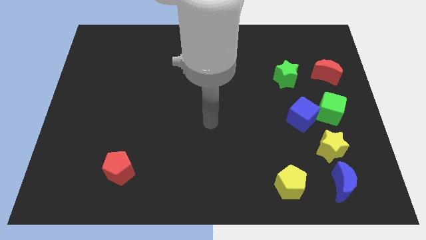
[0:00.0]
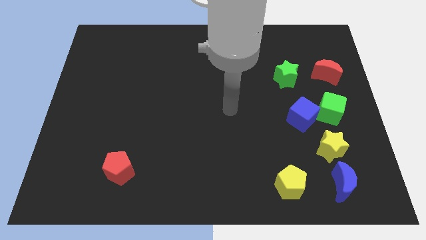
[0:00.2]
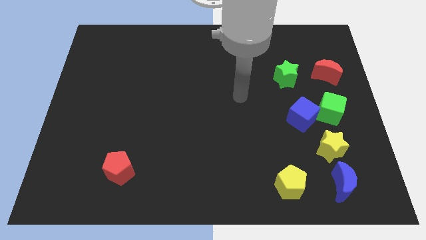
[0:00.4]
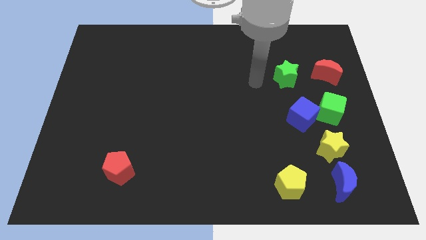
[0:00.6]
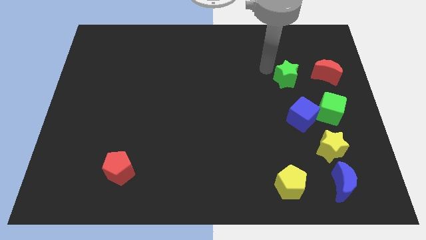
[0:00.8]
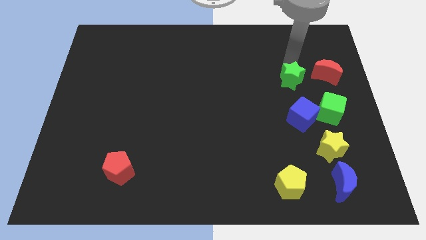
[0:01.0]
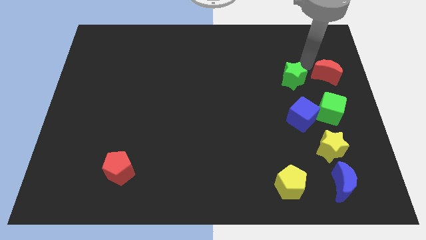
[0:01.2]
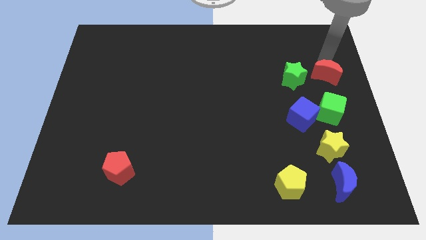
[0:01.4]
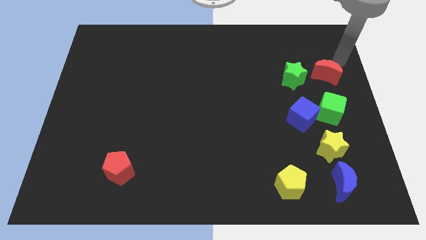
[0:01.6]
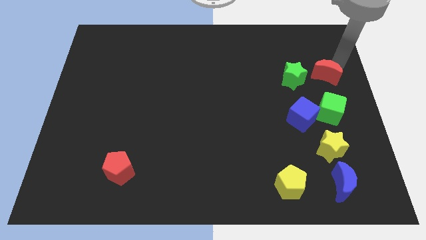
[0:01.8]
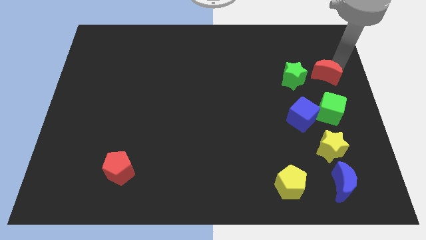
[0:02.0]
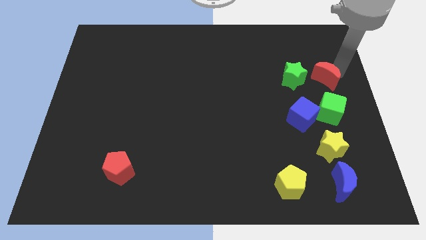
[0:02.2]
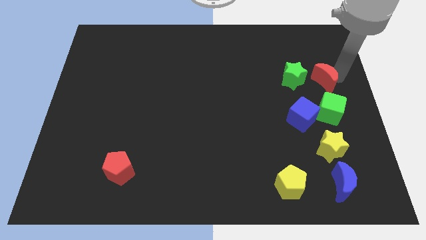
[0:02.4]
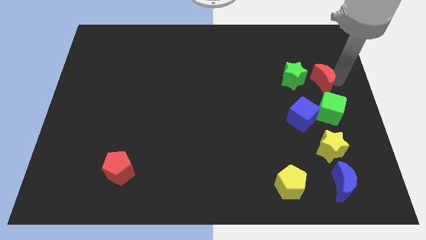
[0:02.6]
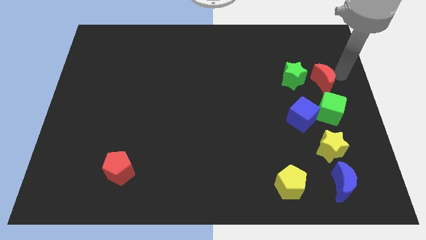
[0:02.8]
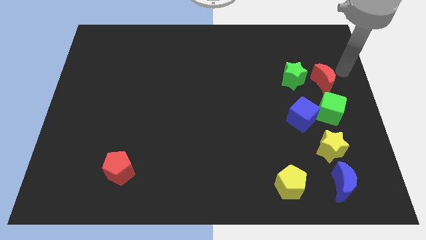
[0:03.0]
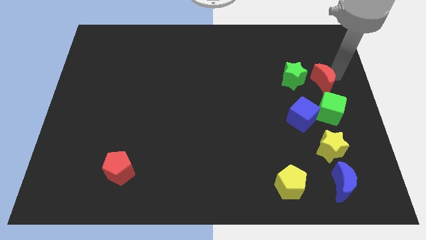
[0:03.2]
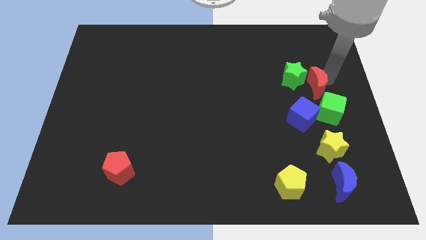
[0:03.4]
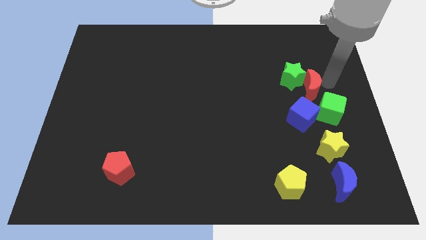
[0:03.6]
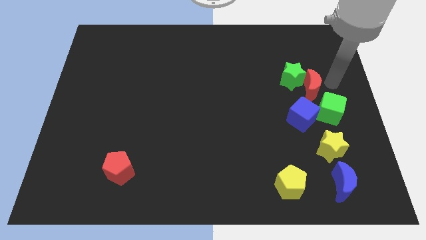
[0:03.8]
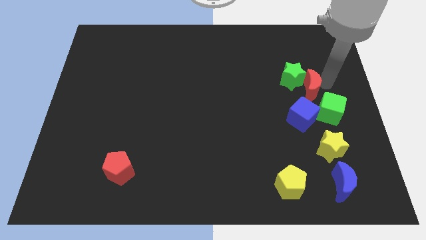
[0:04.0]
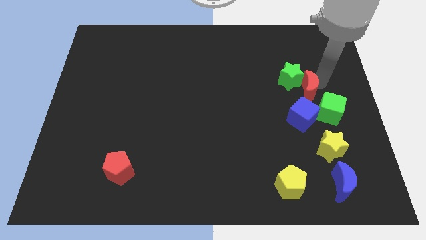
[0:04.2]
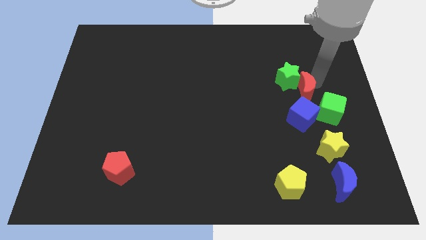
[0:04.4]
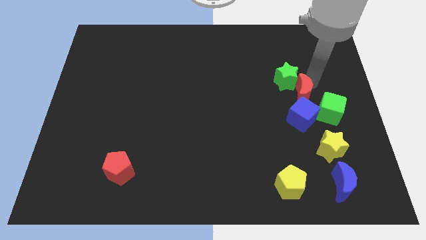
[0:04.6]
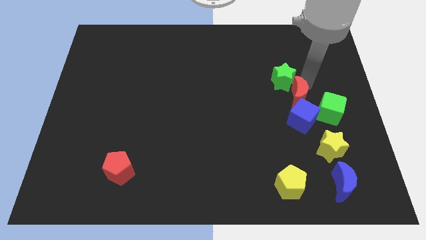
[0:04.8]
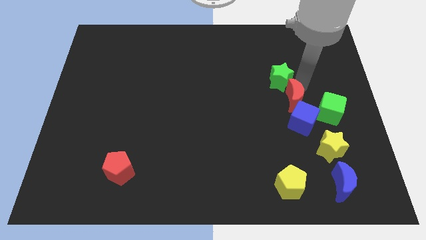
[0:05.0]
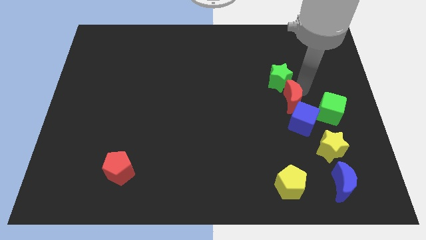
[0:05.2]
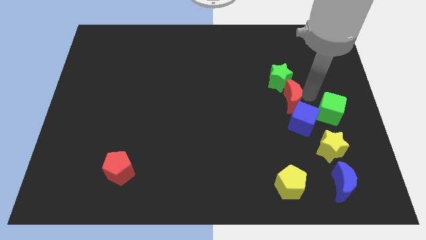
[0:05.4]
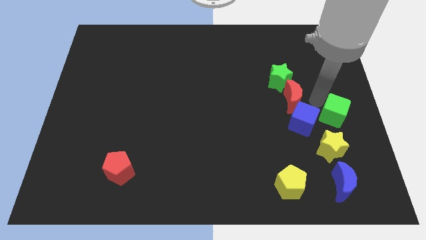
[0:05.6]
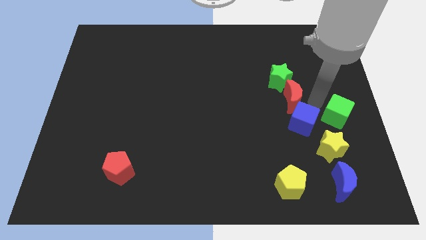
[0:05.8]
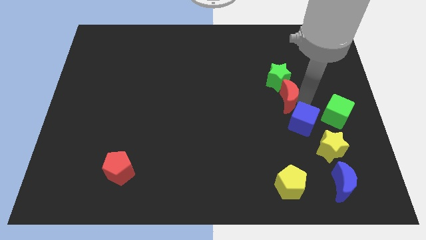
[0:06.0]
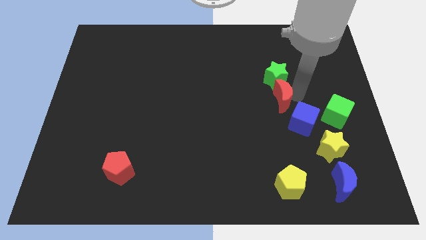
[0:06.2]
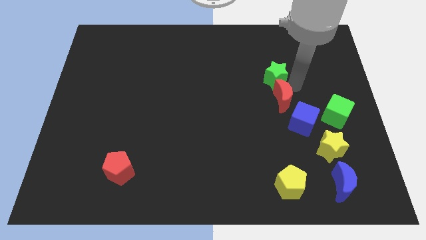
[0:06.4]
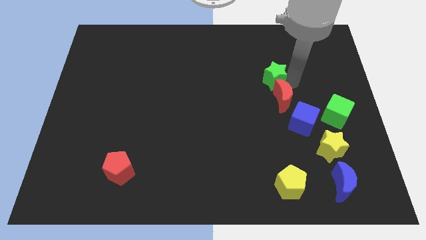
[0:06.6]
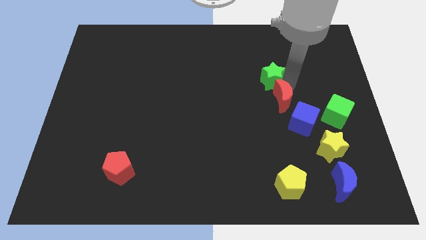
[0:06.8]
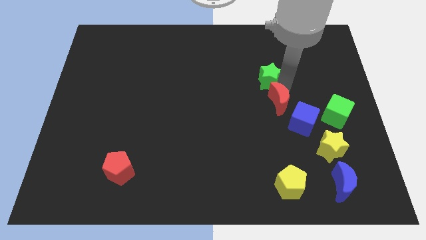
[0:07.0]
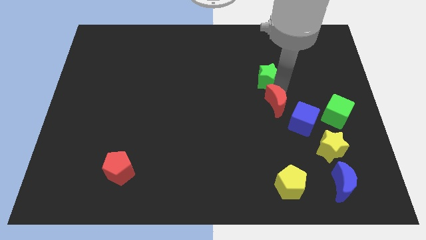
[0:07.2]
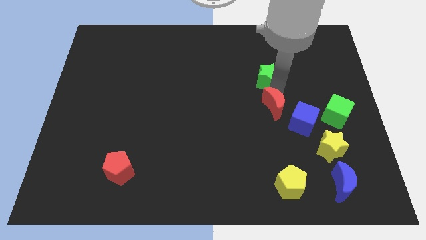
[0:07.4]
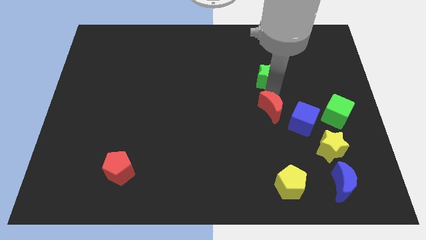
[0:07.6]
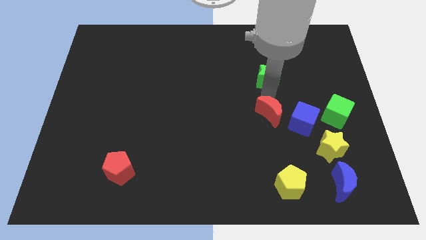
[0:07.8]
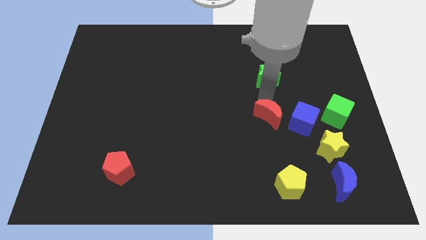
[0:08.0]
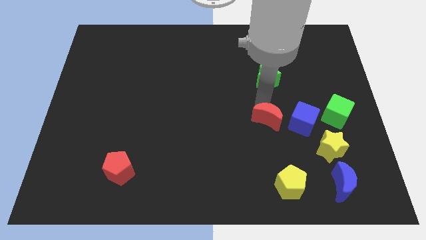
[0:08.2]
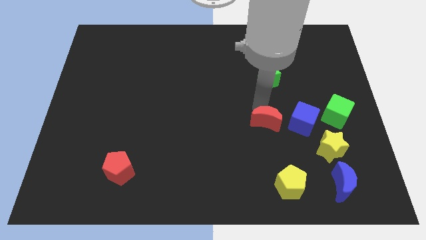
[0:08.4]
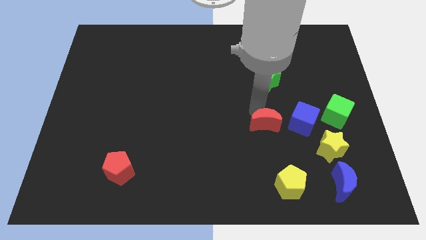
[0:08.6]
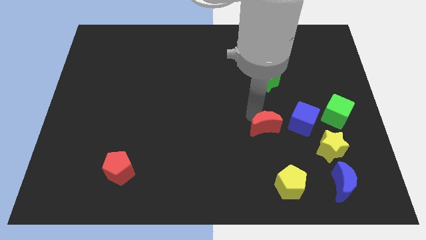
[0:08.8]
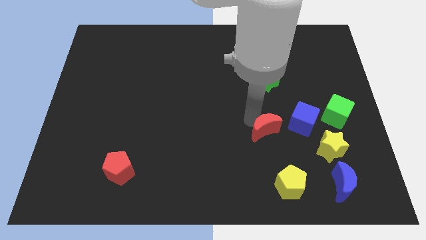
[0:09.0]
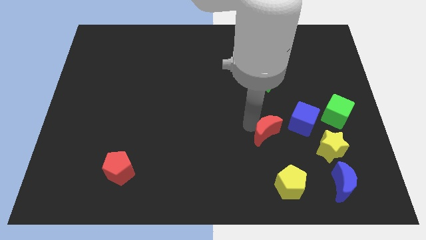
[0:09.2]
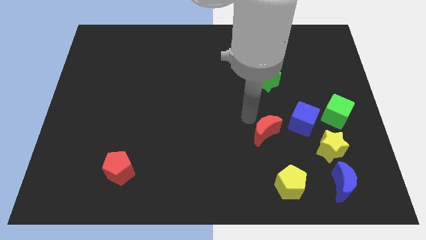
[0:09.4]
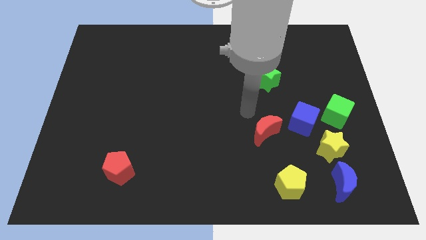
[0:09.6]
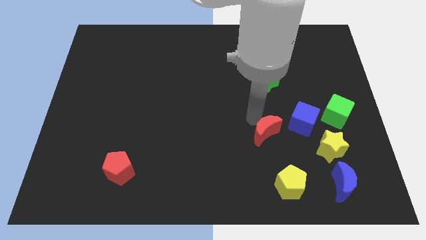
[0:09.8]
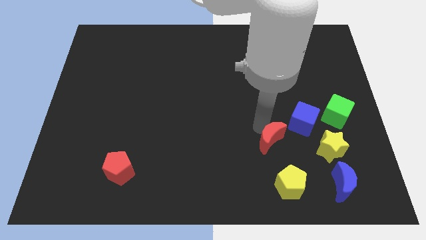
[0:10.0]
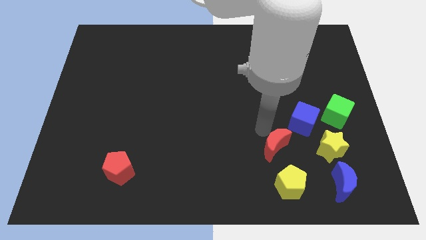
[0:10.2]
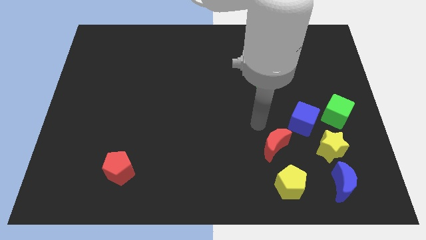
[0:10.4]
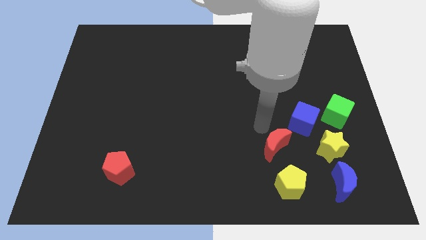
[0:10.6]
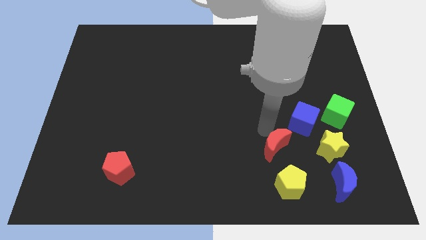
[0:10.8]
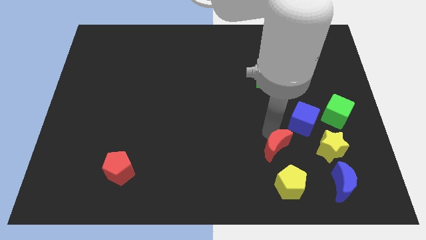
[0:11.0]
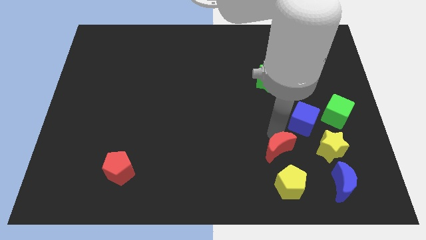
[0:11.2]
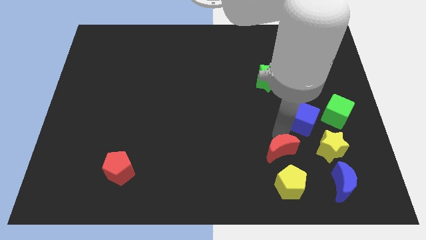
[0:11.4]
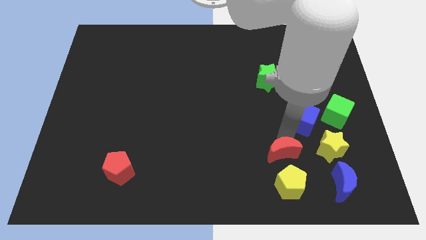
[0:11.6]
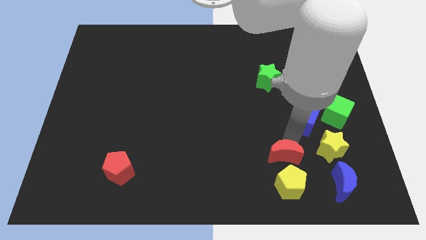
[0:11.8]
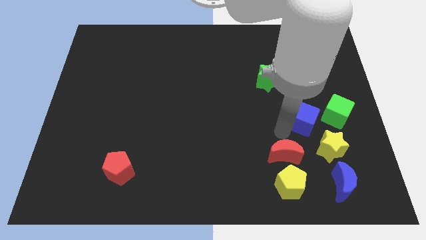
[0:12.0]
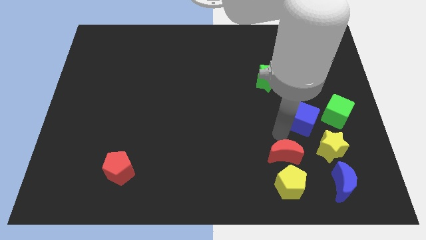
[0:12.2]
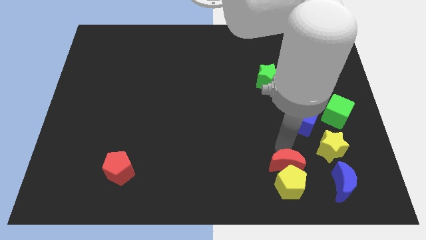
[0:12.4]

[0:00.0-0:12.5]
slide the red moon to the yellow pentagon

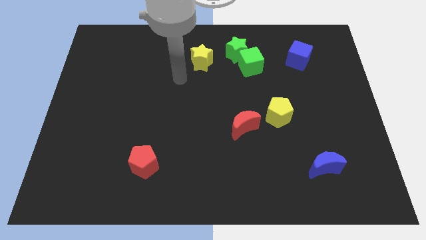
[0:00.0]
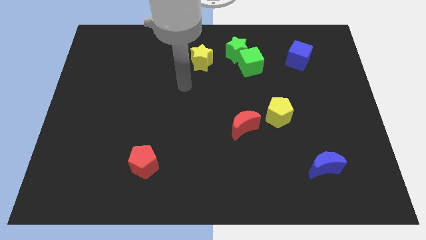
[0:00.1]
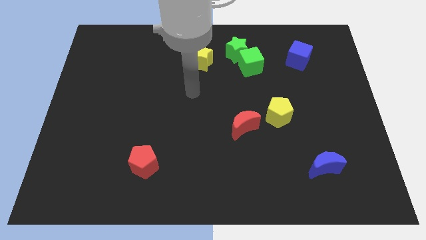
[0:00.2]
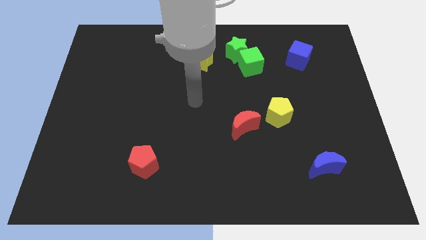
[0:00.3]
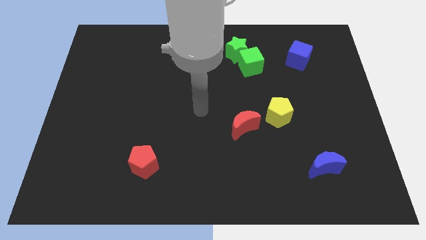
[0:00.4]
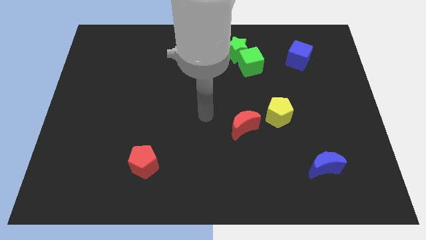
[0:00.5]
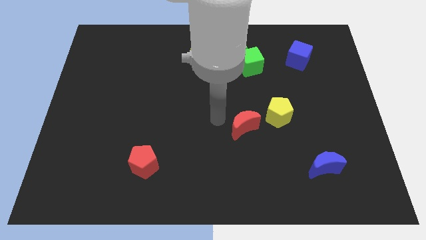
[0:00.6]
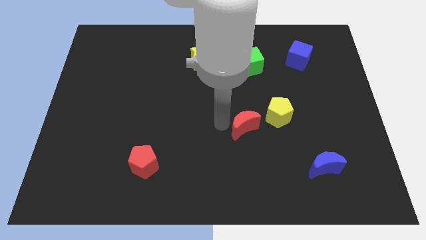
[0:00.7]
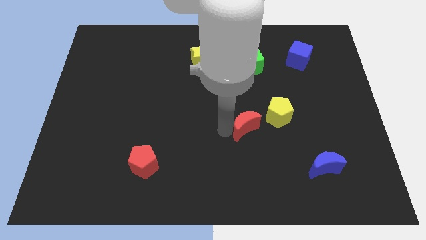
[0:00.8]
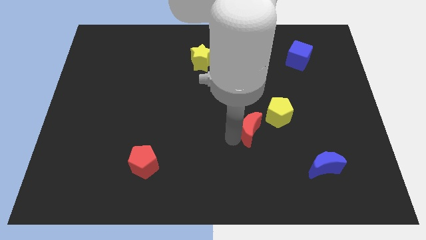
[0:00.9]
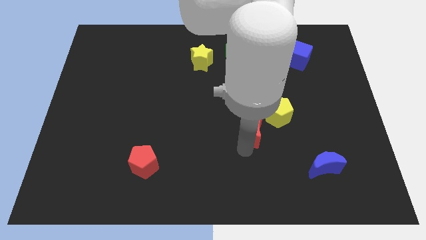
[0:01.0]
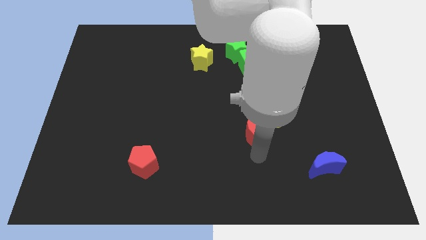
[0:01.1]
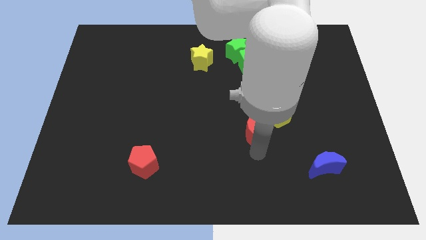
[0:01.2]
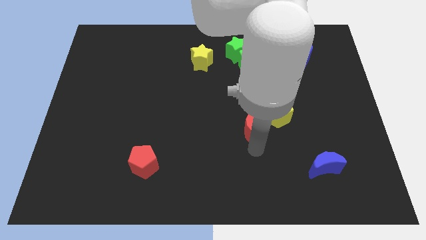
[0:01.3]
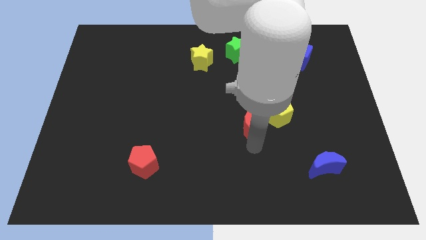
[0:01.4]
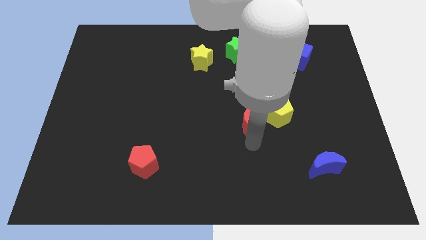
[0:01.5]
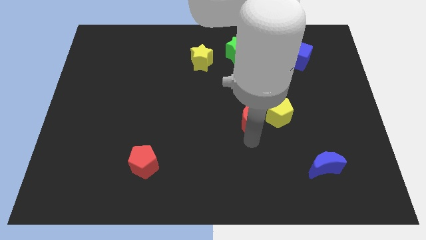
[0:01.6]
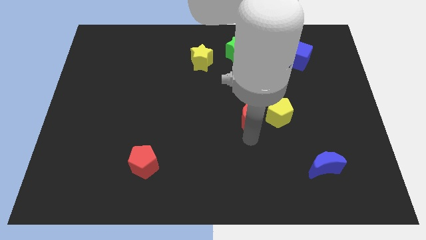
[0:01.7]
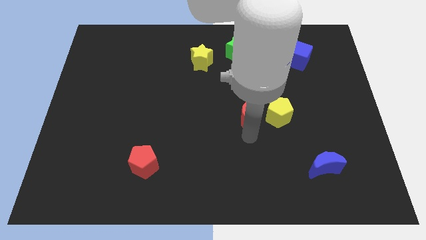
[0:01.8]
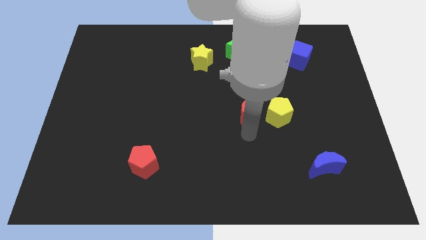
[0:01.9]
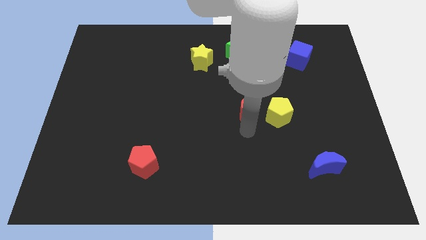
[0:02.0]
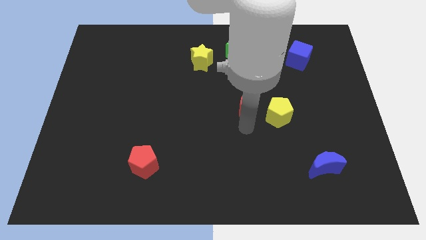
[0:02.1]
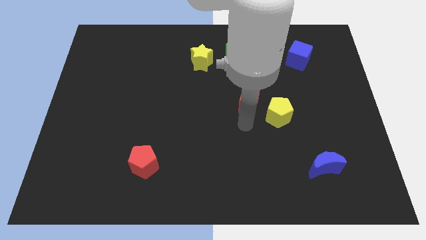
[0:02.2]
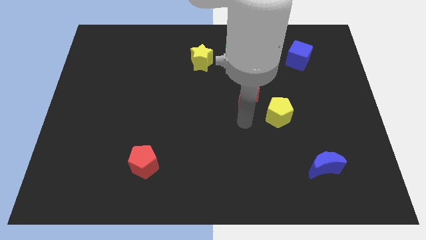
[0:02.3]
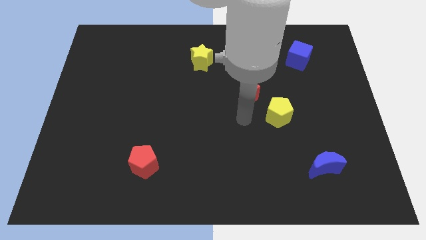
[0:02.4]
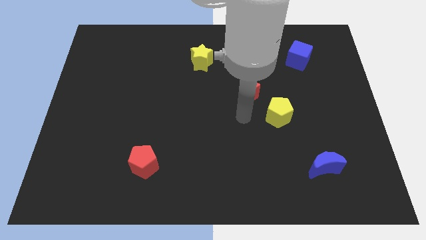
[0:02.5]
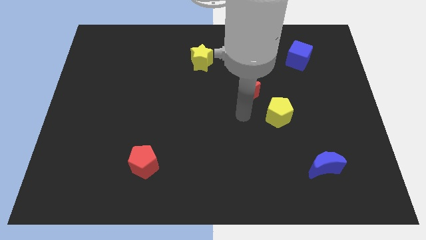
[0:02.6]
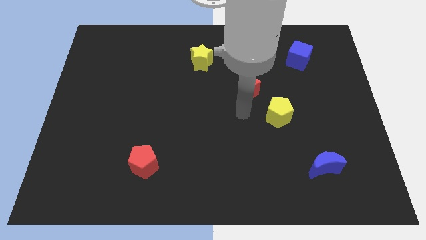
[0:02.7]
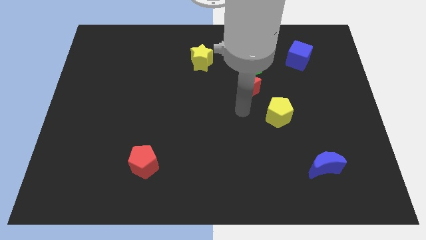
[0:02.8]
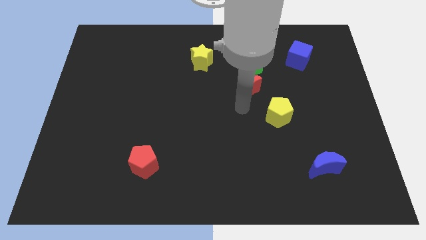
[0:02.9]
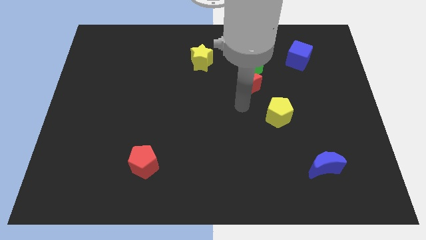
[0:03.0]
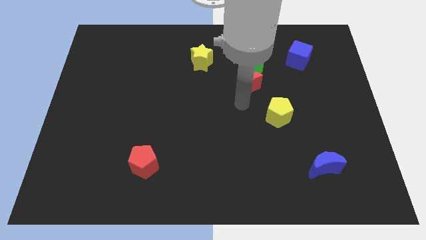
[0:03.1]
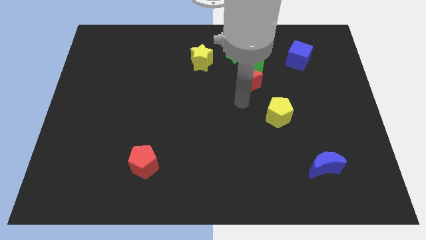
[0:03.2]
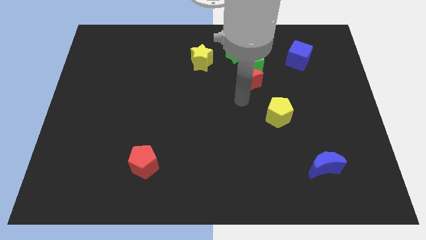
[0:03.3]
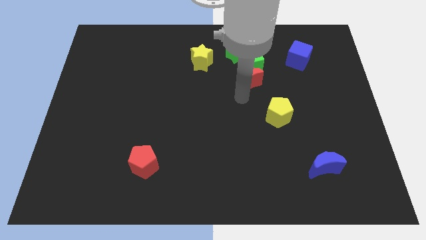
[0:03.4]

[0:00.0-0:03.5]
push the red moon to the green cube
